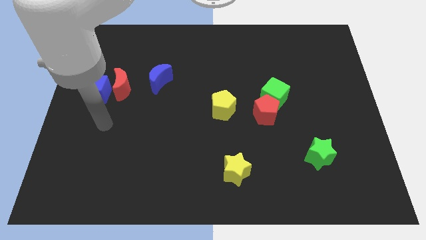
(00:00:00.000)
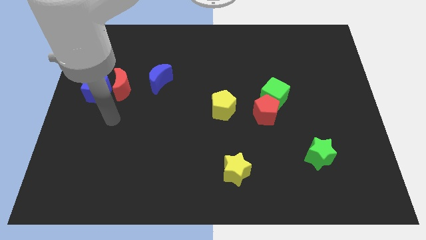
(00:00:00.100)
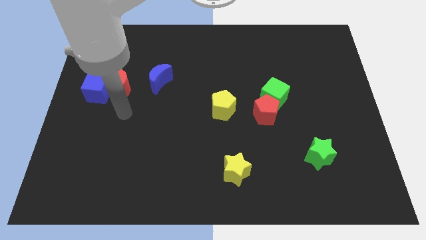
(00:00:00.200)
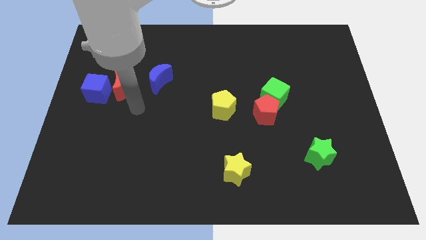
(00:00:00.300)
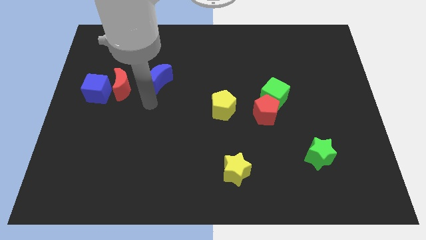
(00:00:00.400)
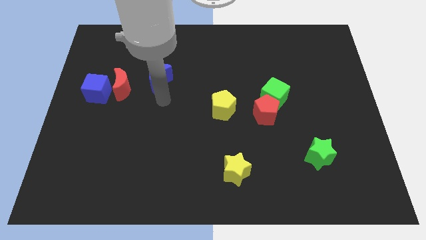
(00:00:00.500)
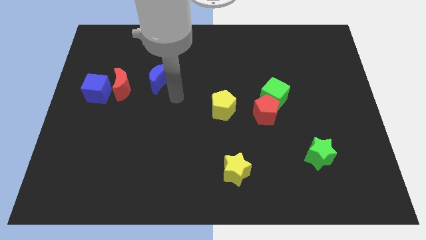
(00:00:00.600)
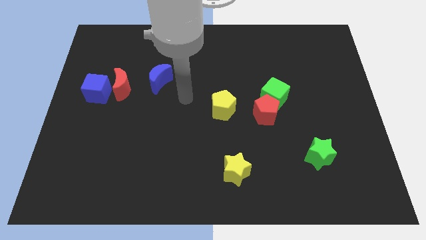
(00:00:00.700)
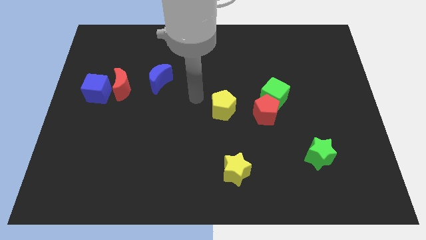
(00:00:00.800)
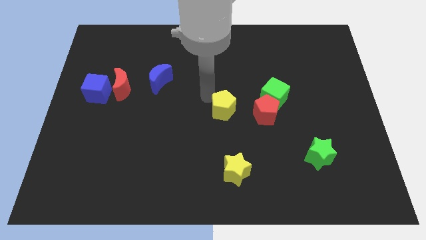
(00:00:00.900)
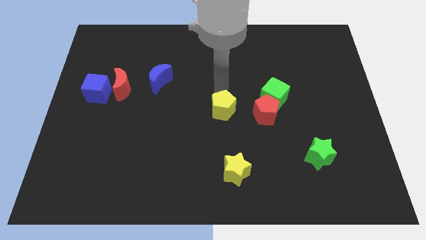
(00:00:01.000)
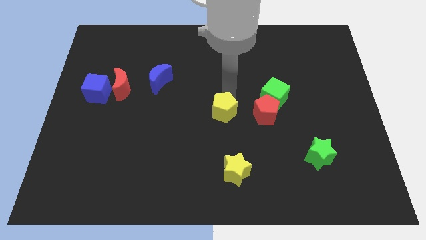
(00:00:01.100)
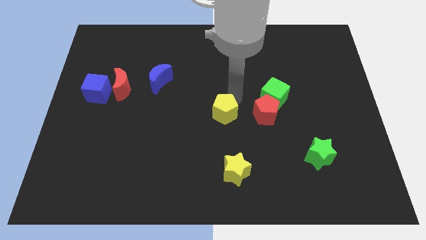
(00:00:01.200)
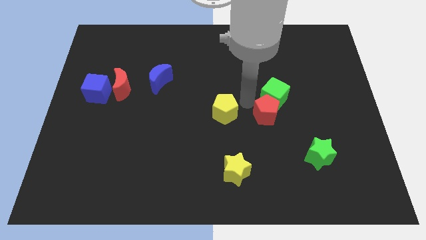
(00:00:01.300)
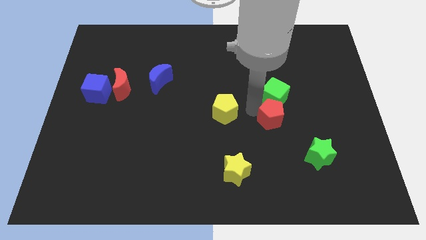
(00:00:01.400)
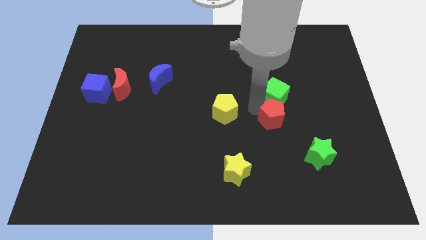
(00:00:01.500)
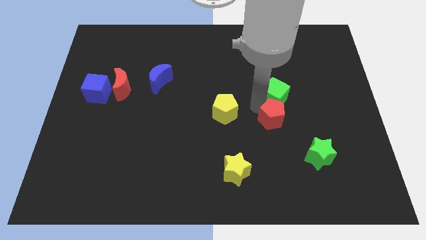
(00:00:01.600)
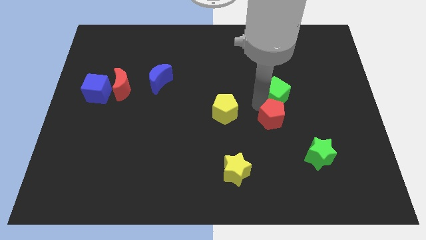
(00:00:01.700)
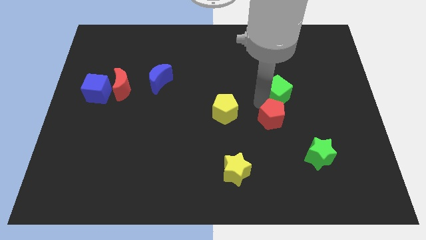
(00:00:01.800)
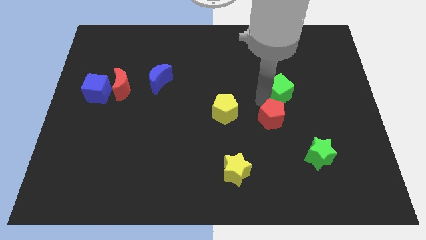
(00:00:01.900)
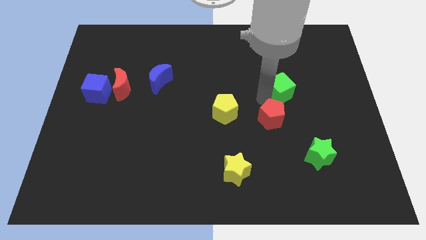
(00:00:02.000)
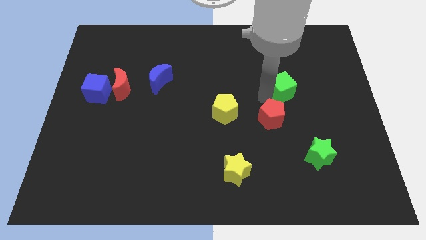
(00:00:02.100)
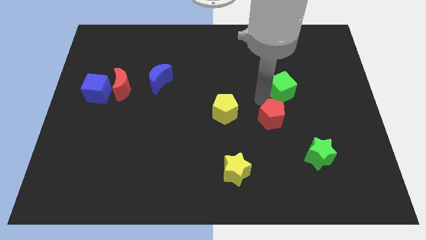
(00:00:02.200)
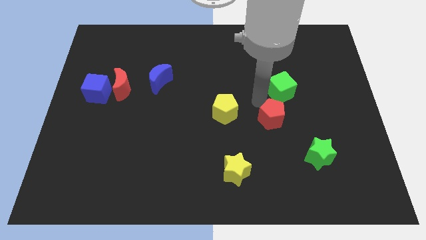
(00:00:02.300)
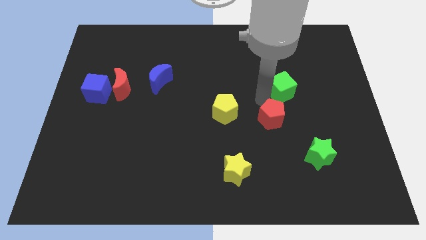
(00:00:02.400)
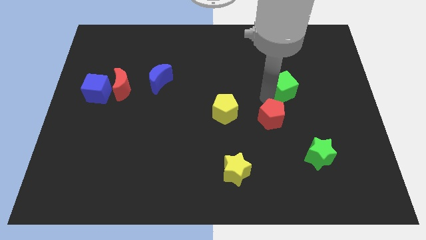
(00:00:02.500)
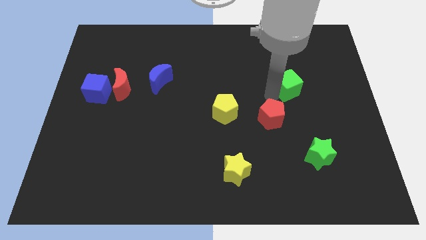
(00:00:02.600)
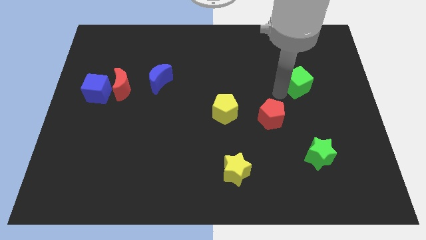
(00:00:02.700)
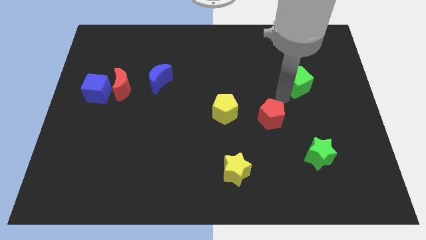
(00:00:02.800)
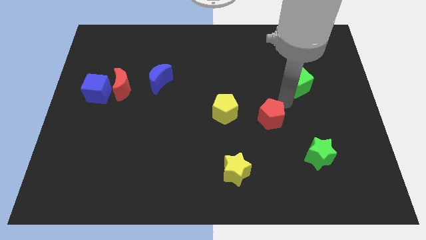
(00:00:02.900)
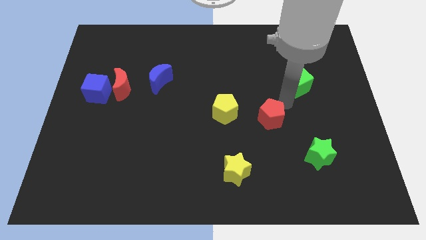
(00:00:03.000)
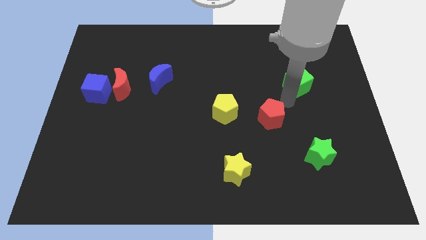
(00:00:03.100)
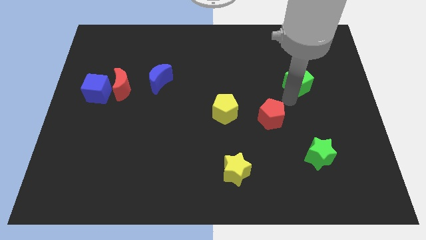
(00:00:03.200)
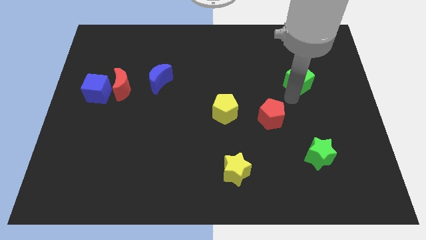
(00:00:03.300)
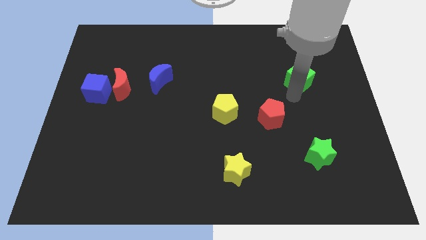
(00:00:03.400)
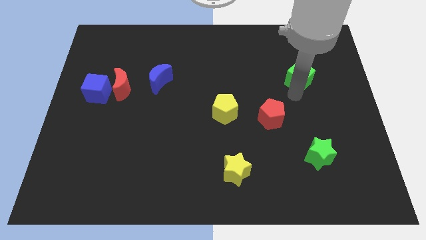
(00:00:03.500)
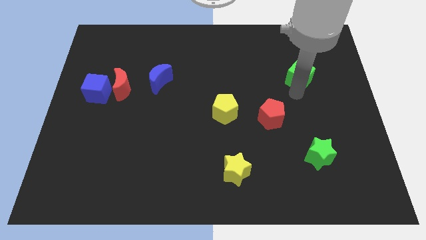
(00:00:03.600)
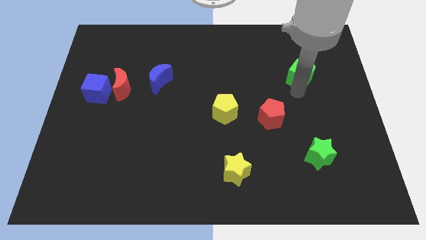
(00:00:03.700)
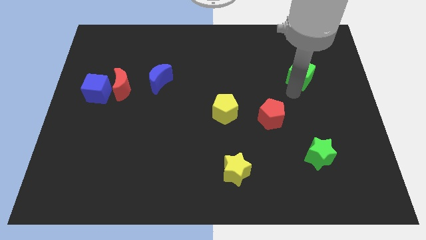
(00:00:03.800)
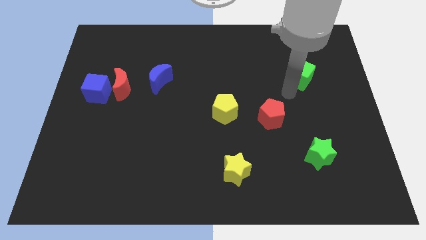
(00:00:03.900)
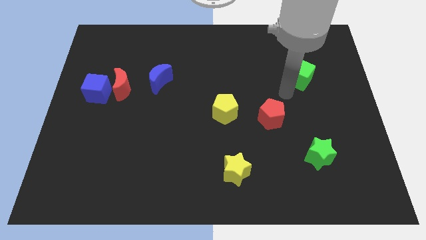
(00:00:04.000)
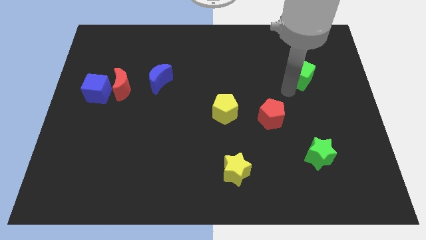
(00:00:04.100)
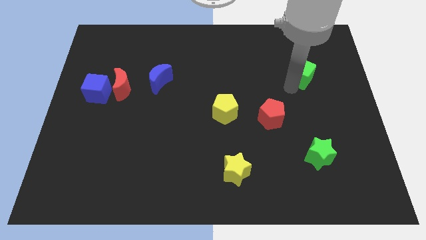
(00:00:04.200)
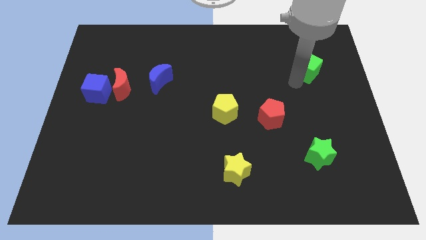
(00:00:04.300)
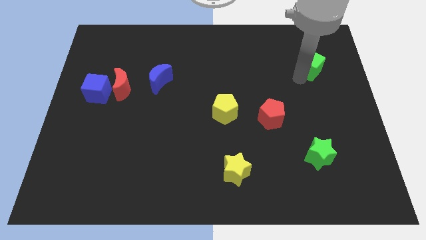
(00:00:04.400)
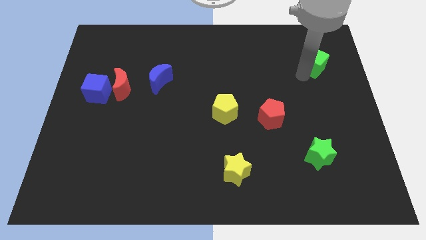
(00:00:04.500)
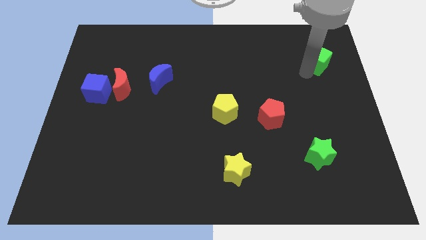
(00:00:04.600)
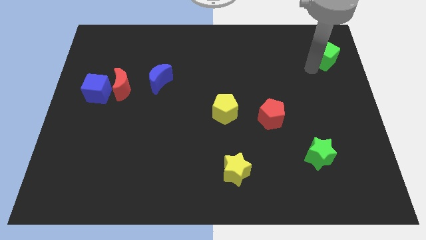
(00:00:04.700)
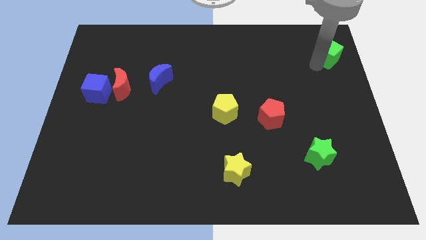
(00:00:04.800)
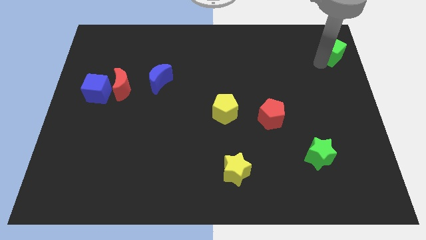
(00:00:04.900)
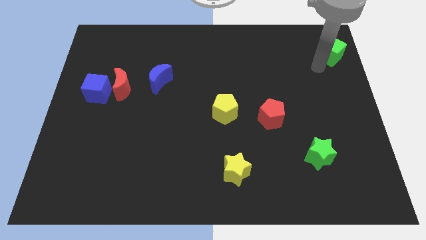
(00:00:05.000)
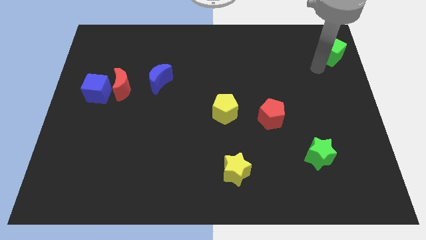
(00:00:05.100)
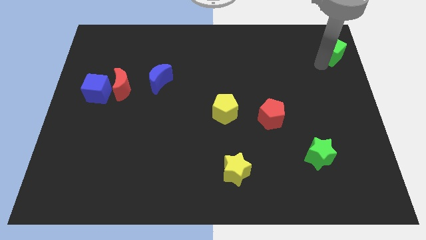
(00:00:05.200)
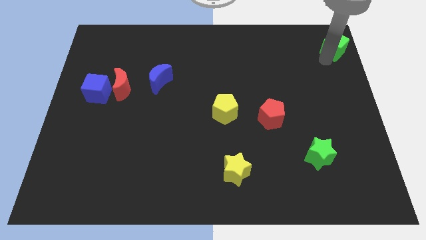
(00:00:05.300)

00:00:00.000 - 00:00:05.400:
slide the green cube to the upper right corner

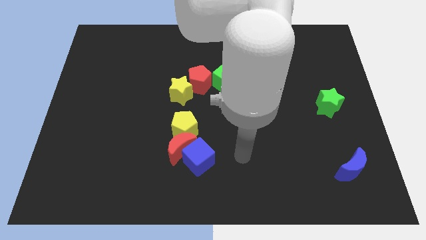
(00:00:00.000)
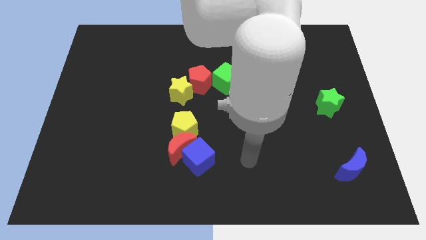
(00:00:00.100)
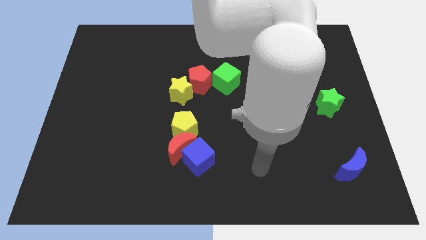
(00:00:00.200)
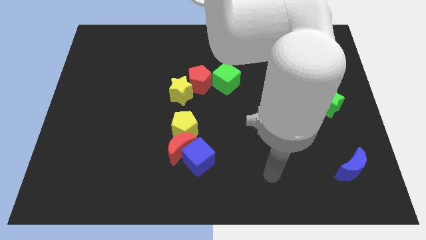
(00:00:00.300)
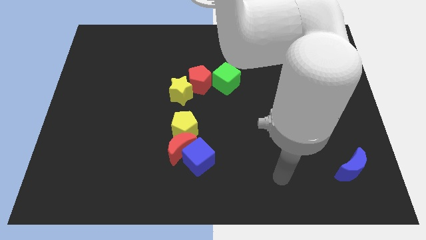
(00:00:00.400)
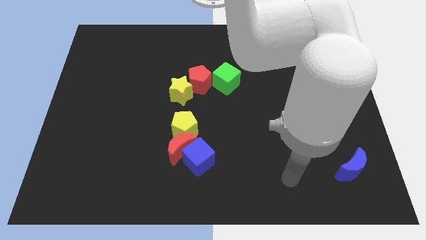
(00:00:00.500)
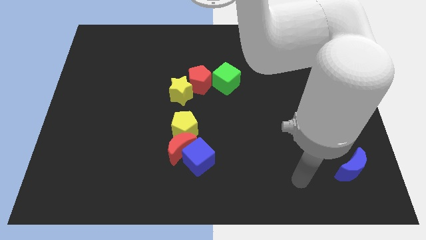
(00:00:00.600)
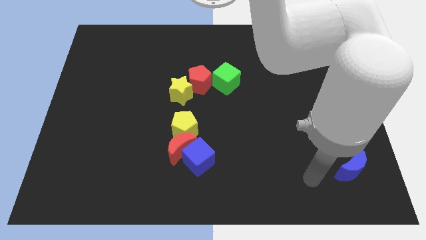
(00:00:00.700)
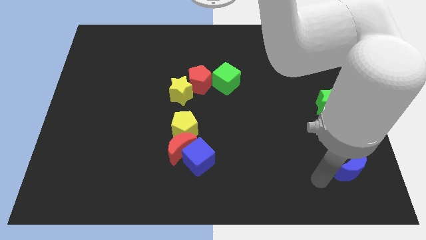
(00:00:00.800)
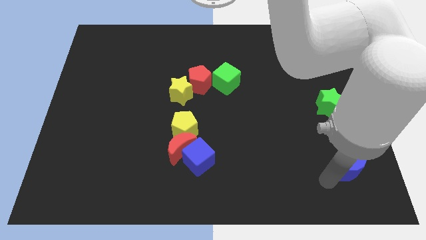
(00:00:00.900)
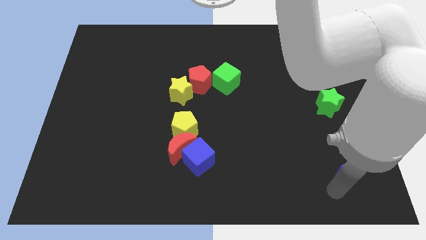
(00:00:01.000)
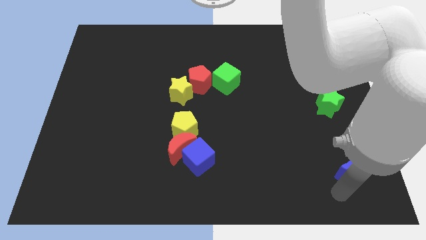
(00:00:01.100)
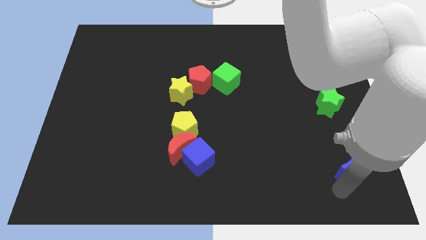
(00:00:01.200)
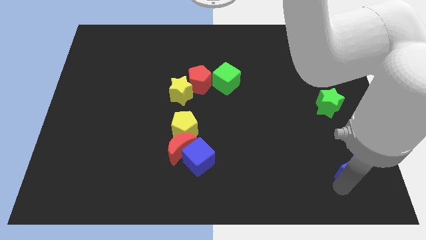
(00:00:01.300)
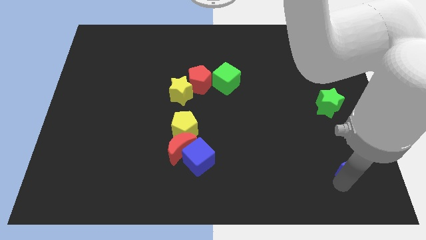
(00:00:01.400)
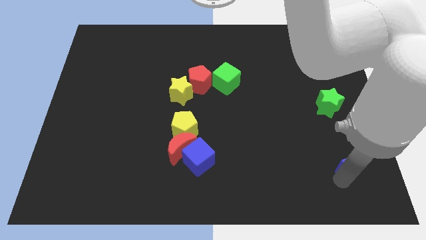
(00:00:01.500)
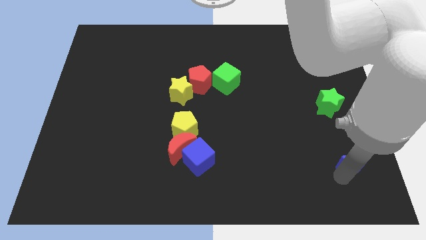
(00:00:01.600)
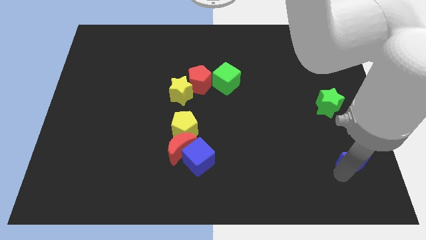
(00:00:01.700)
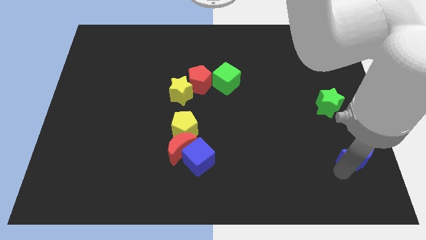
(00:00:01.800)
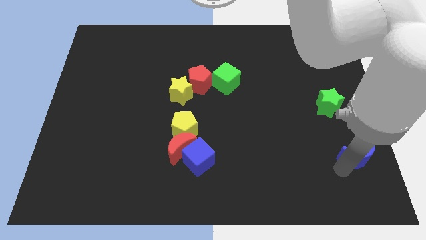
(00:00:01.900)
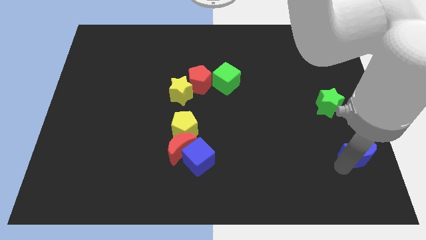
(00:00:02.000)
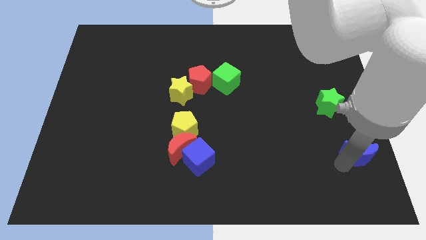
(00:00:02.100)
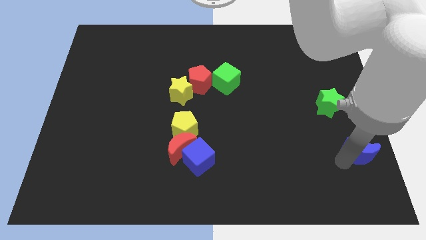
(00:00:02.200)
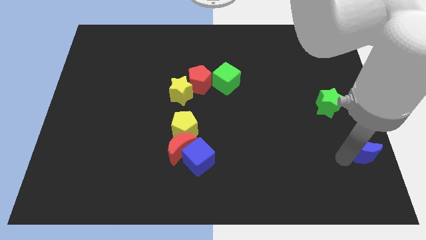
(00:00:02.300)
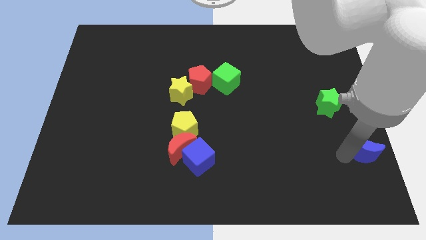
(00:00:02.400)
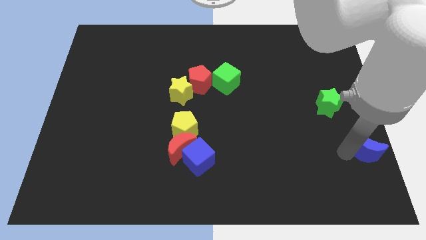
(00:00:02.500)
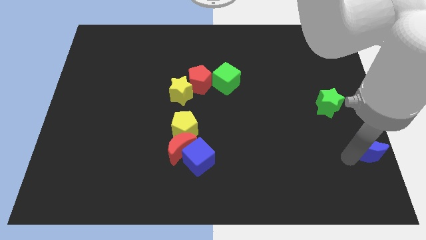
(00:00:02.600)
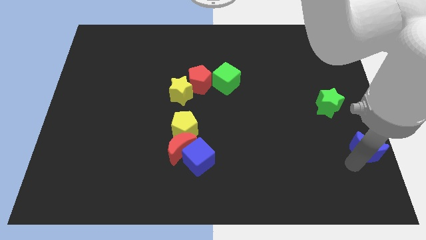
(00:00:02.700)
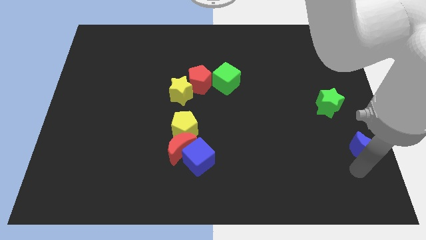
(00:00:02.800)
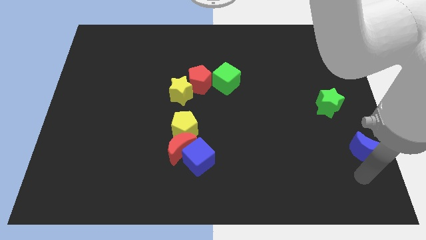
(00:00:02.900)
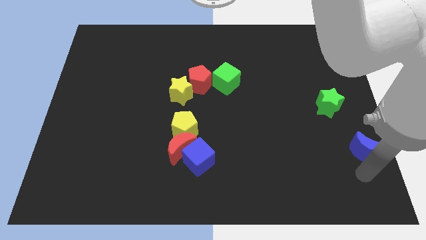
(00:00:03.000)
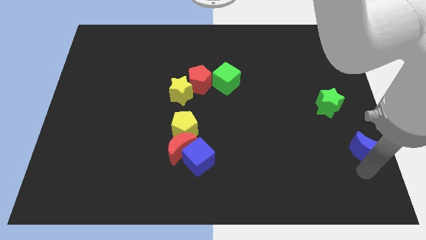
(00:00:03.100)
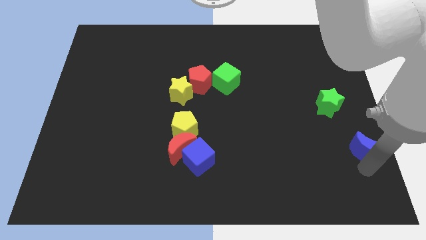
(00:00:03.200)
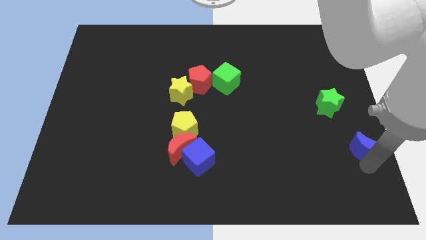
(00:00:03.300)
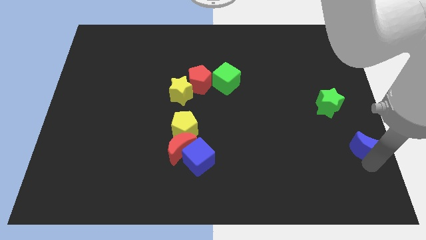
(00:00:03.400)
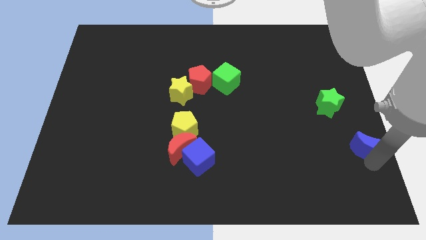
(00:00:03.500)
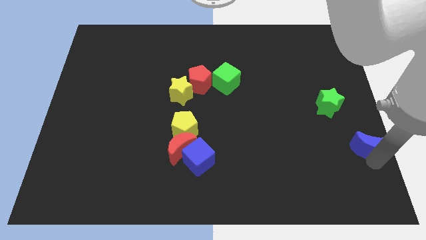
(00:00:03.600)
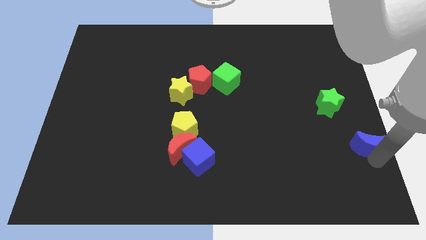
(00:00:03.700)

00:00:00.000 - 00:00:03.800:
put the blue moon to the right side
